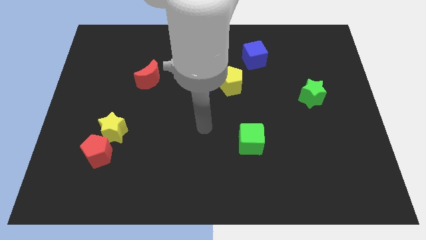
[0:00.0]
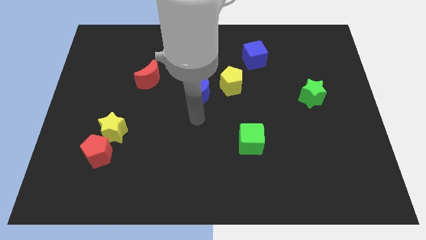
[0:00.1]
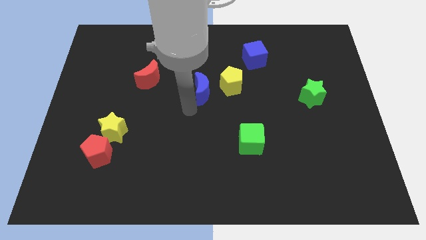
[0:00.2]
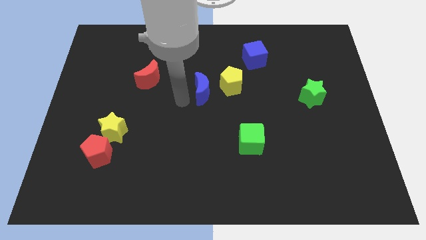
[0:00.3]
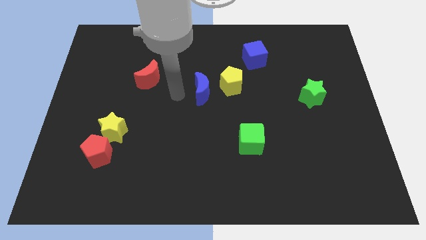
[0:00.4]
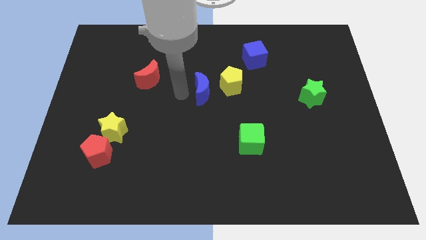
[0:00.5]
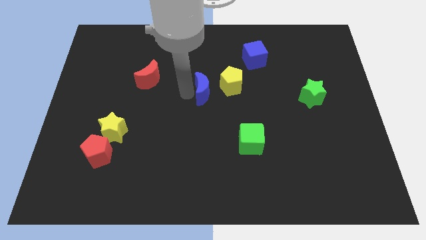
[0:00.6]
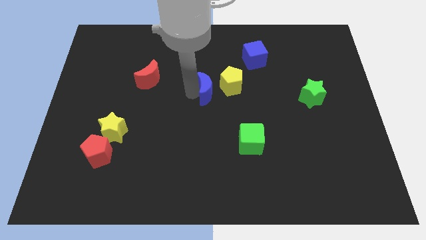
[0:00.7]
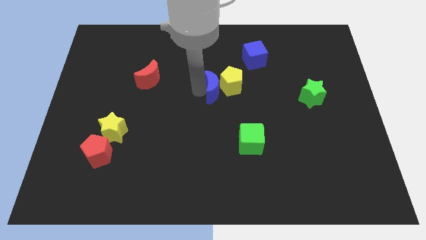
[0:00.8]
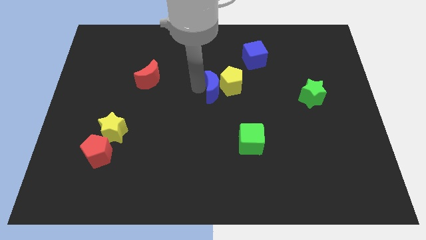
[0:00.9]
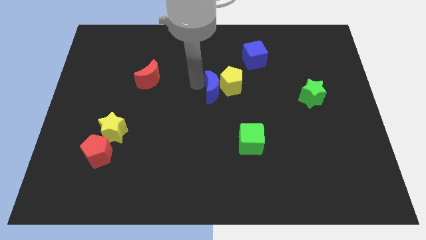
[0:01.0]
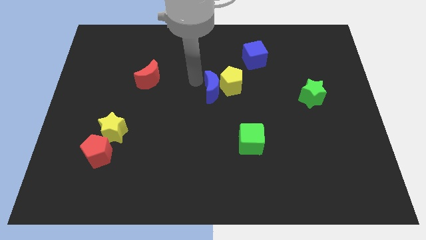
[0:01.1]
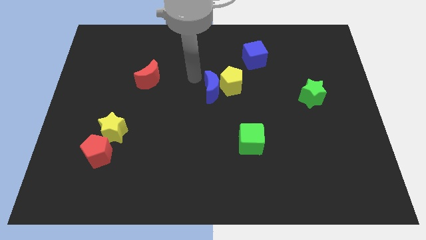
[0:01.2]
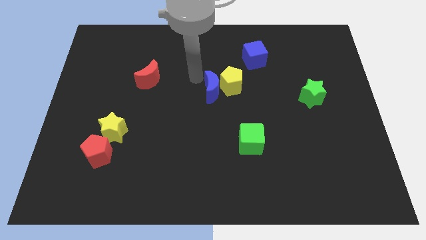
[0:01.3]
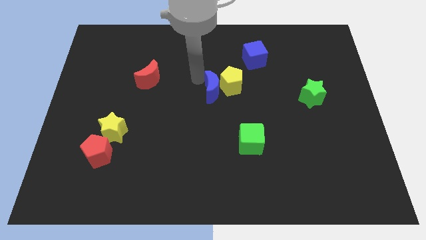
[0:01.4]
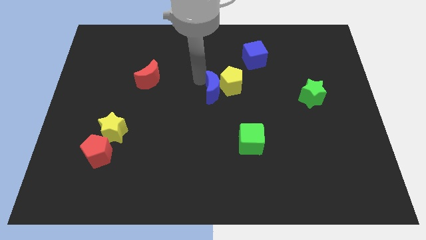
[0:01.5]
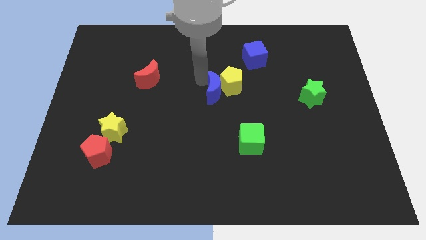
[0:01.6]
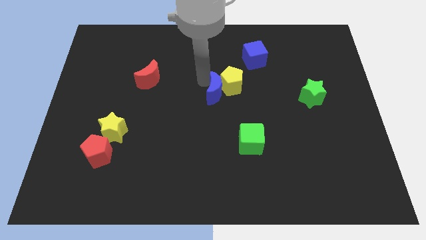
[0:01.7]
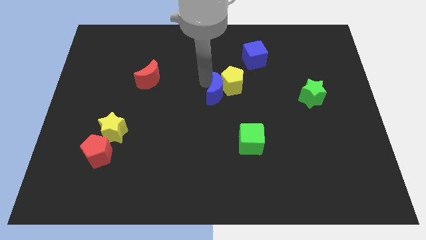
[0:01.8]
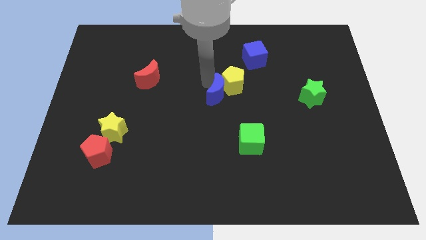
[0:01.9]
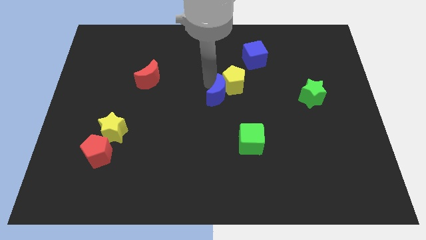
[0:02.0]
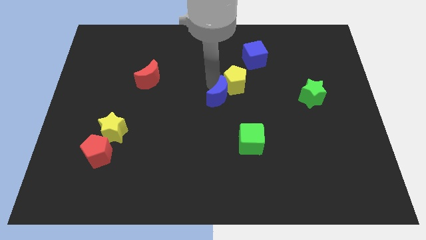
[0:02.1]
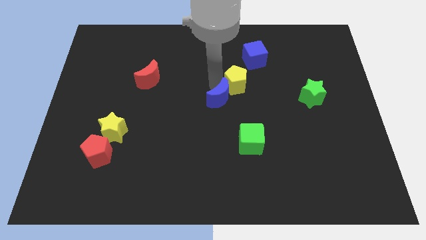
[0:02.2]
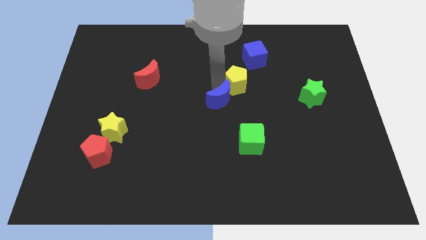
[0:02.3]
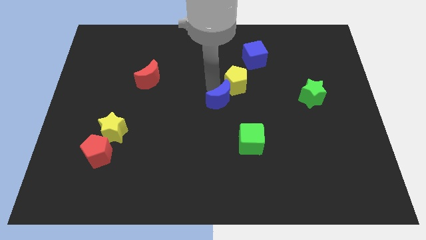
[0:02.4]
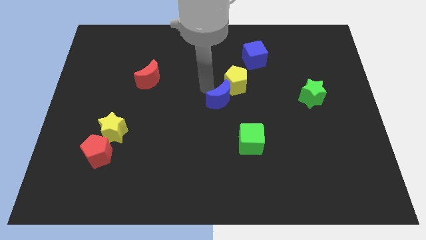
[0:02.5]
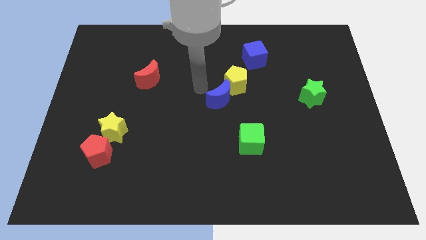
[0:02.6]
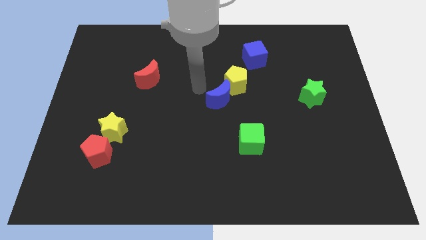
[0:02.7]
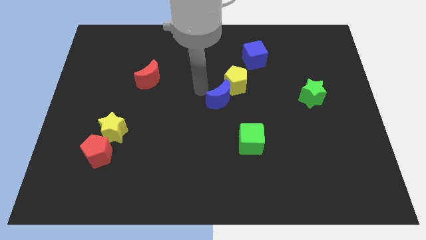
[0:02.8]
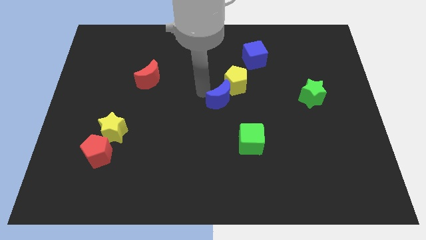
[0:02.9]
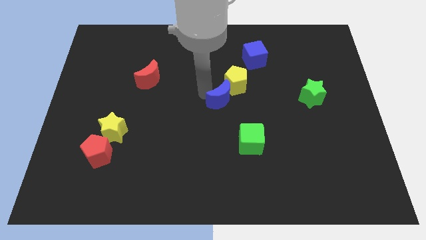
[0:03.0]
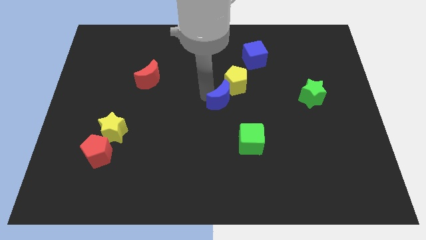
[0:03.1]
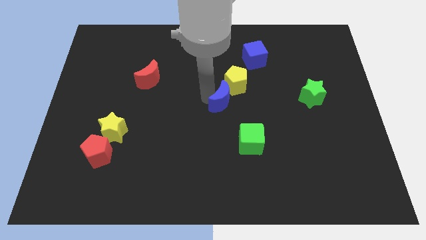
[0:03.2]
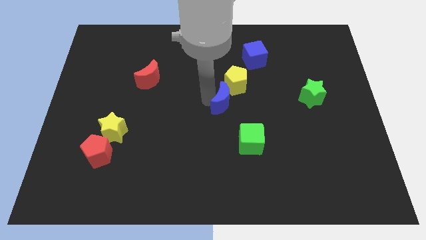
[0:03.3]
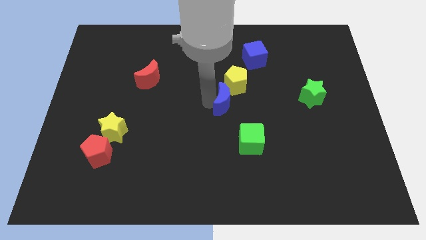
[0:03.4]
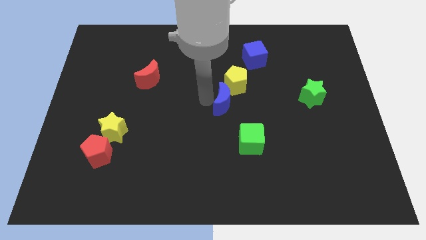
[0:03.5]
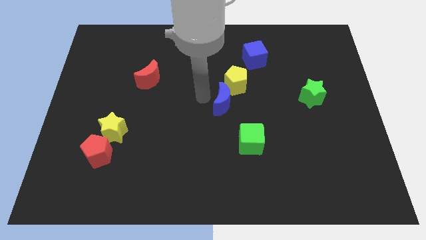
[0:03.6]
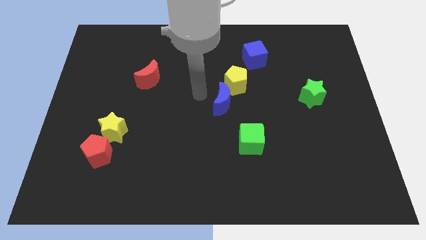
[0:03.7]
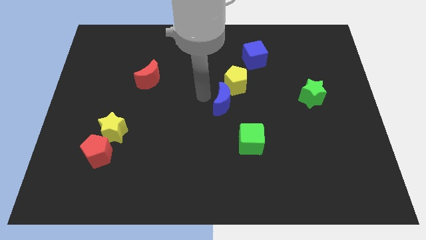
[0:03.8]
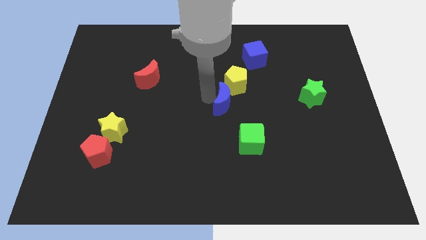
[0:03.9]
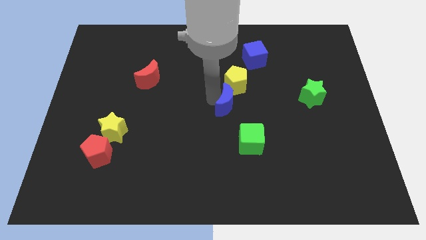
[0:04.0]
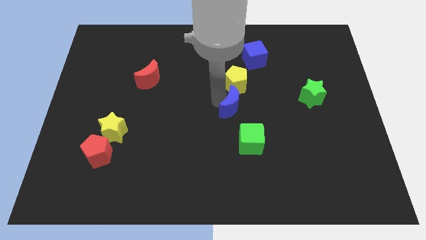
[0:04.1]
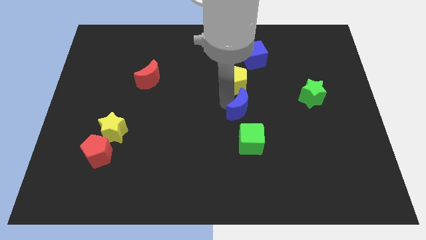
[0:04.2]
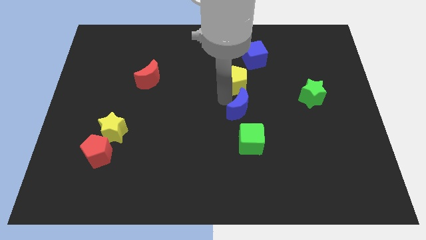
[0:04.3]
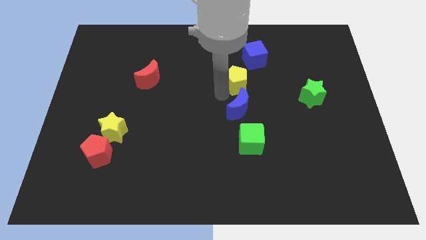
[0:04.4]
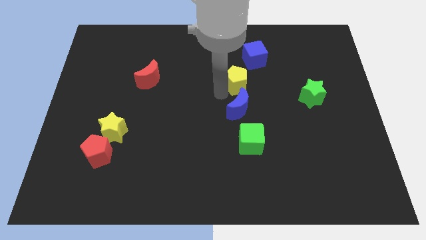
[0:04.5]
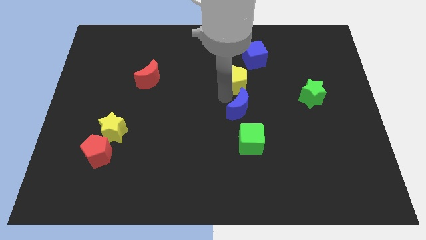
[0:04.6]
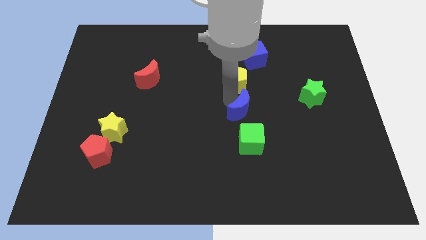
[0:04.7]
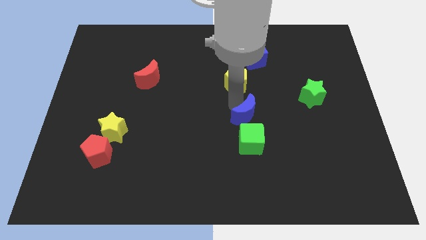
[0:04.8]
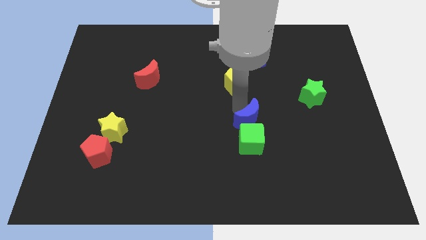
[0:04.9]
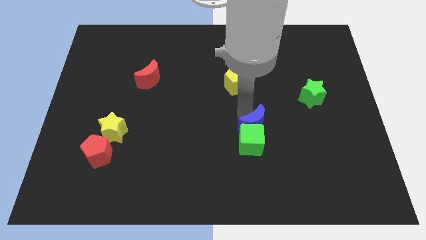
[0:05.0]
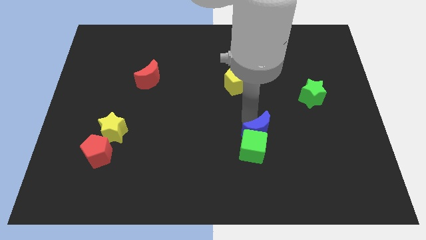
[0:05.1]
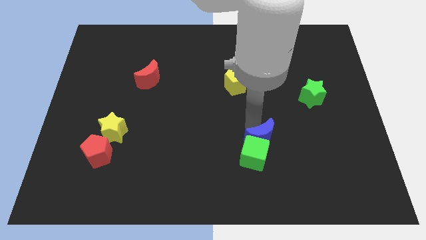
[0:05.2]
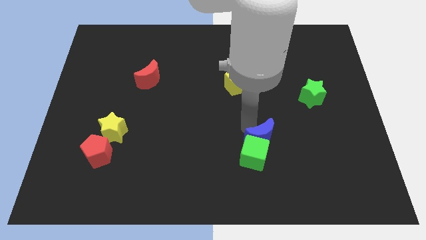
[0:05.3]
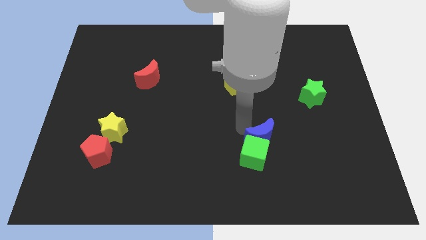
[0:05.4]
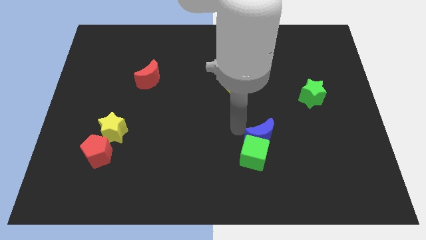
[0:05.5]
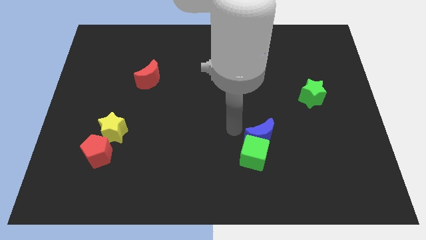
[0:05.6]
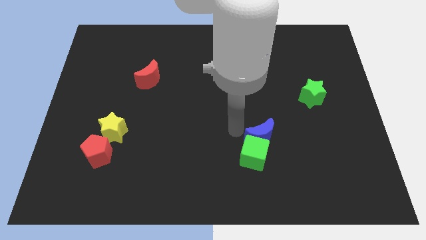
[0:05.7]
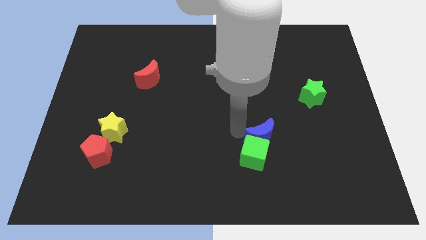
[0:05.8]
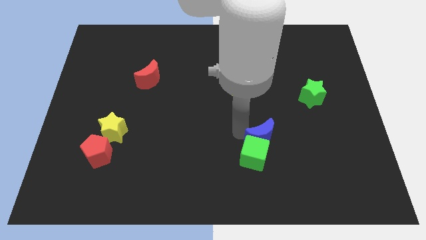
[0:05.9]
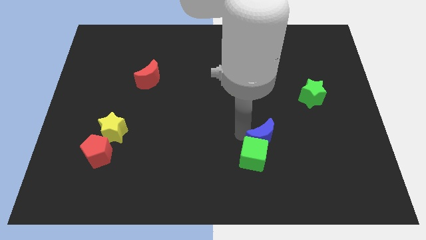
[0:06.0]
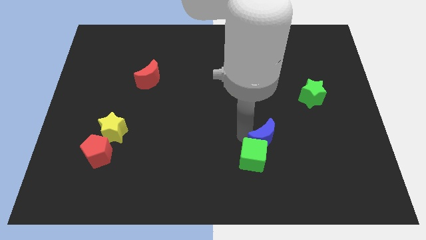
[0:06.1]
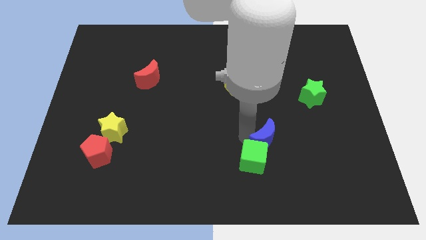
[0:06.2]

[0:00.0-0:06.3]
move the blue moon downwards and right

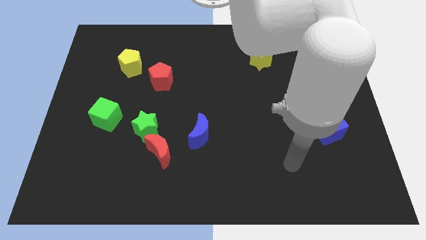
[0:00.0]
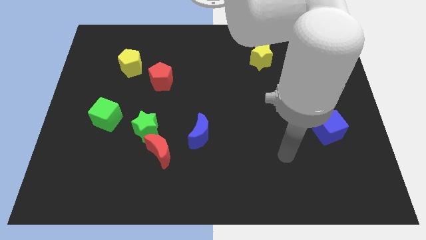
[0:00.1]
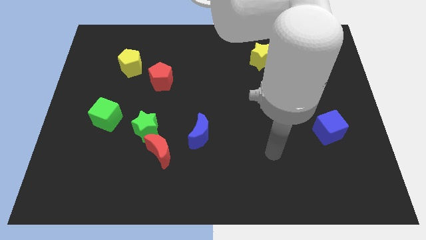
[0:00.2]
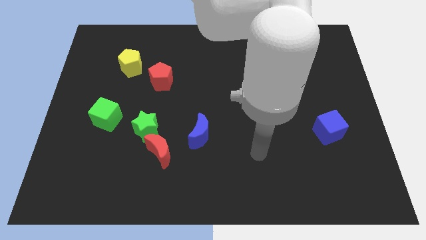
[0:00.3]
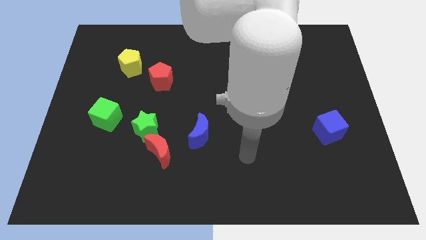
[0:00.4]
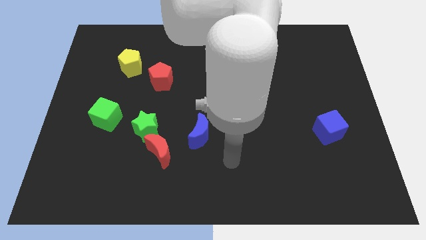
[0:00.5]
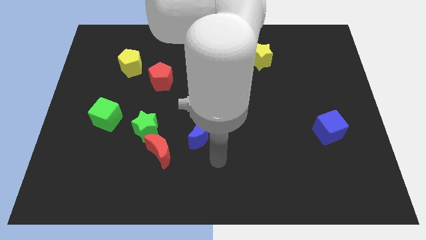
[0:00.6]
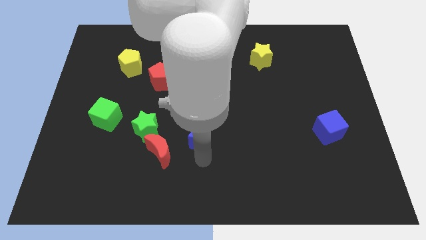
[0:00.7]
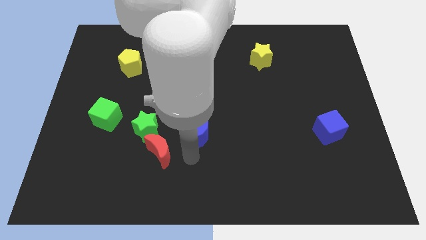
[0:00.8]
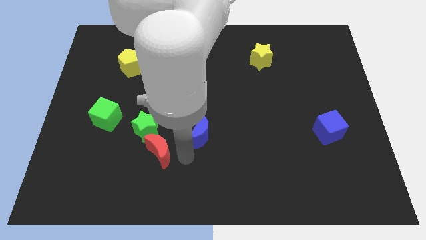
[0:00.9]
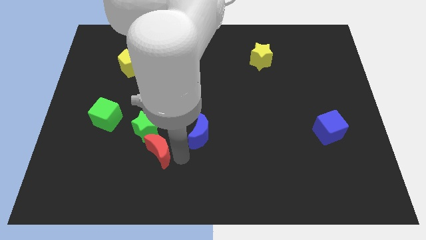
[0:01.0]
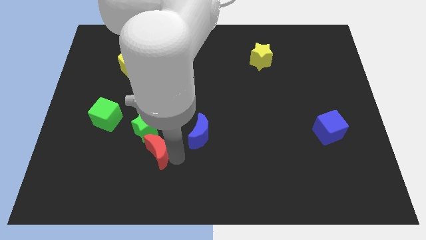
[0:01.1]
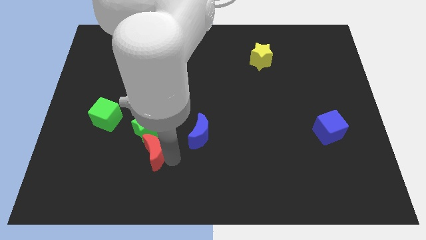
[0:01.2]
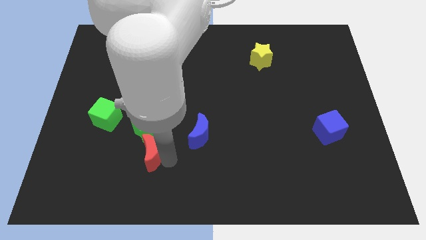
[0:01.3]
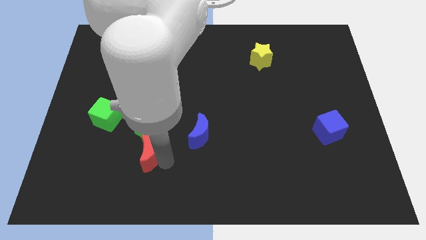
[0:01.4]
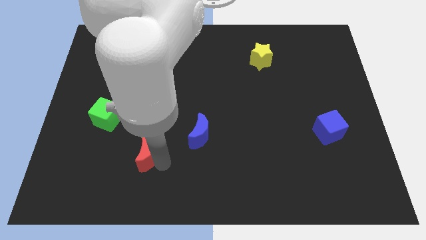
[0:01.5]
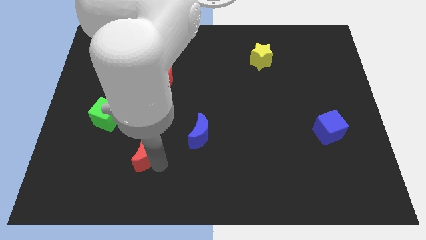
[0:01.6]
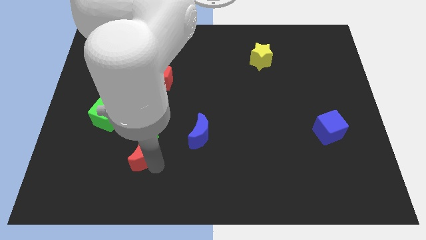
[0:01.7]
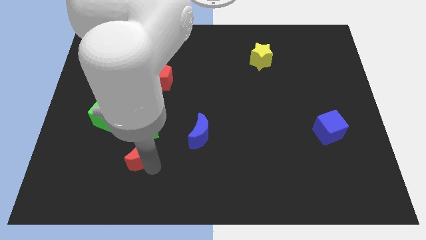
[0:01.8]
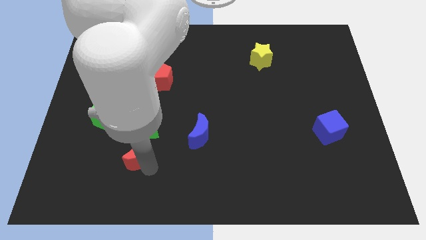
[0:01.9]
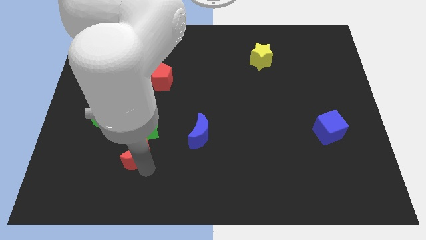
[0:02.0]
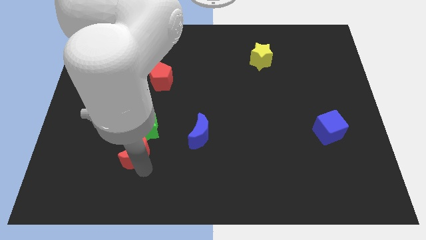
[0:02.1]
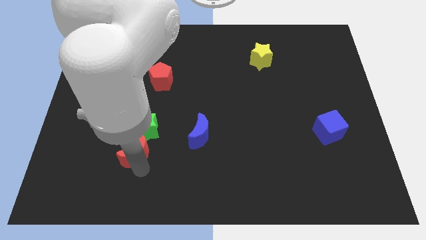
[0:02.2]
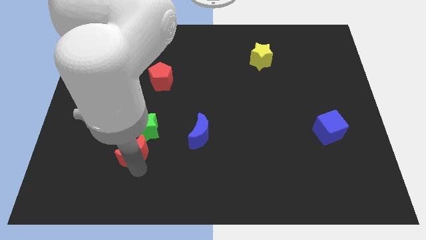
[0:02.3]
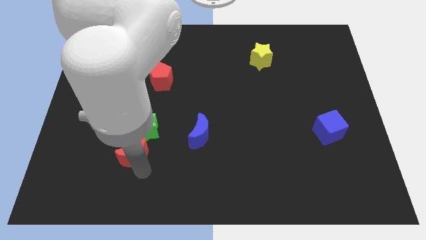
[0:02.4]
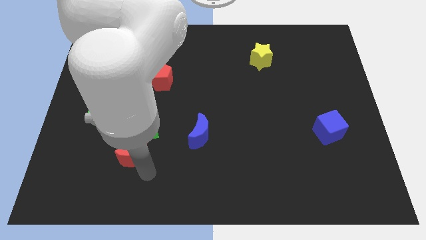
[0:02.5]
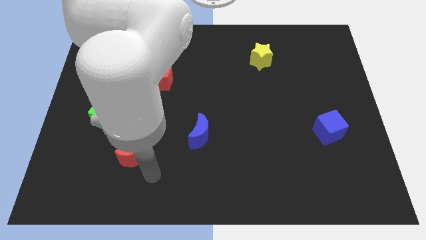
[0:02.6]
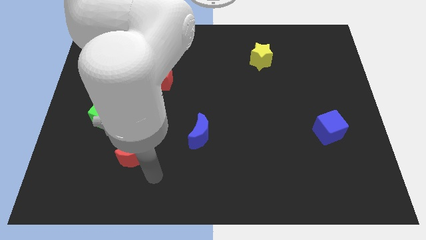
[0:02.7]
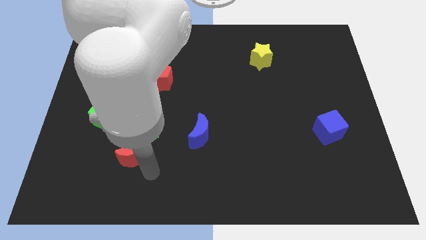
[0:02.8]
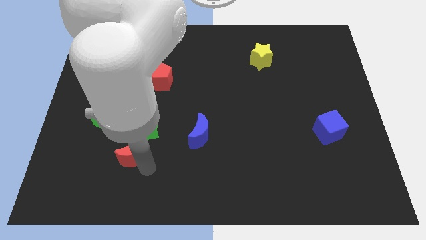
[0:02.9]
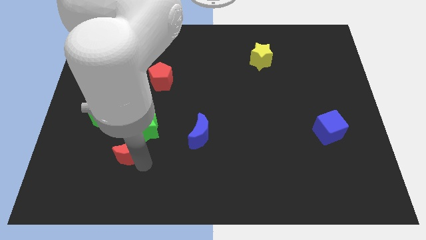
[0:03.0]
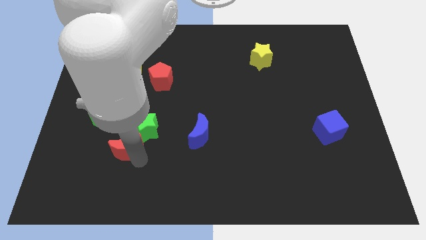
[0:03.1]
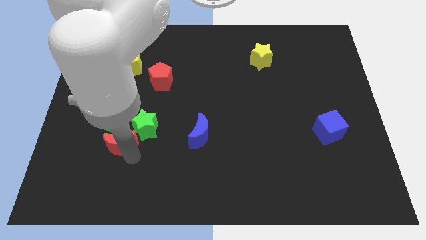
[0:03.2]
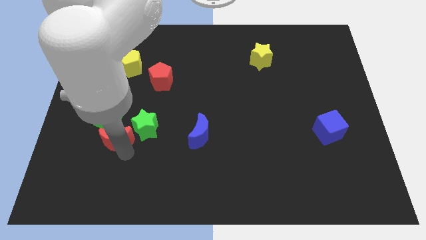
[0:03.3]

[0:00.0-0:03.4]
slightly push the red moon upwards and to the left diagonally
